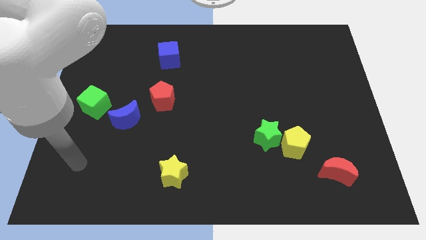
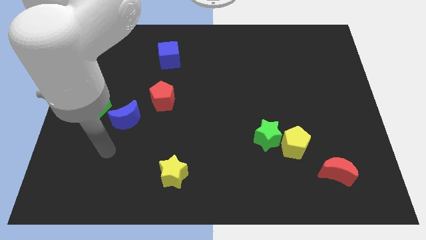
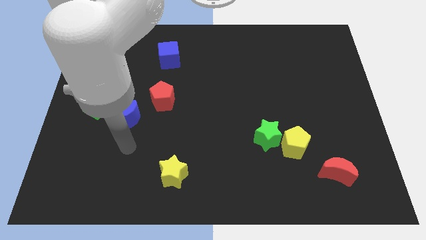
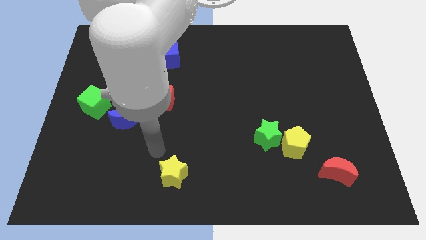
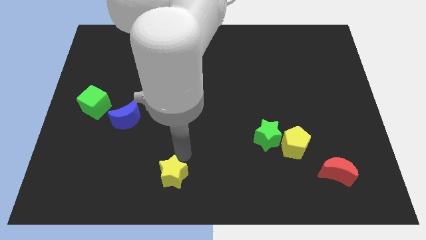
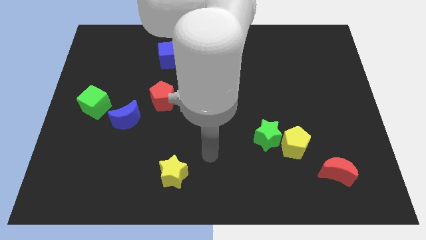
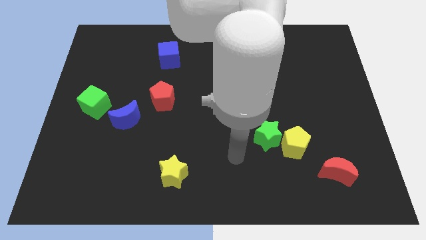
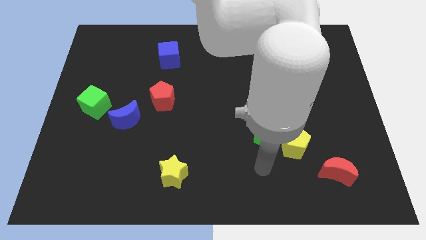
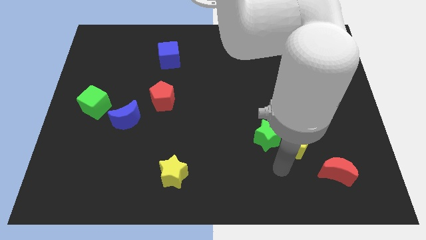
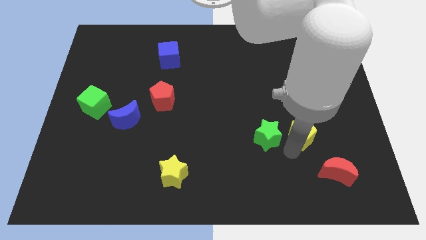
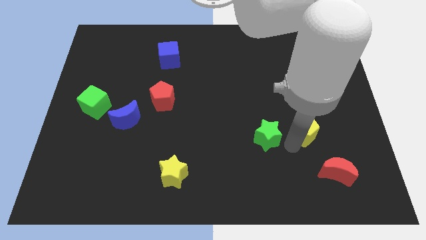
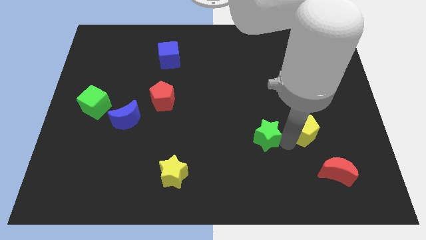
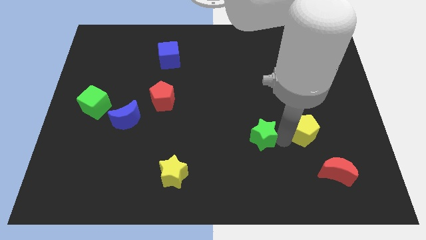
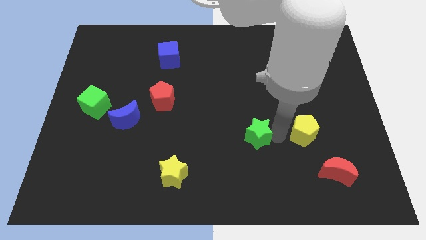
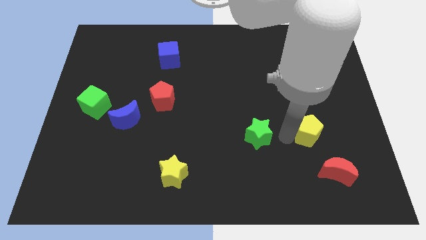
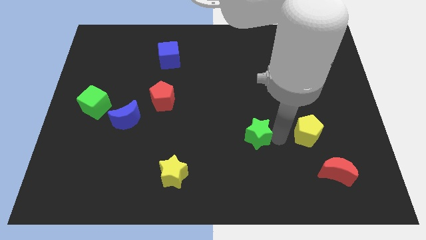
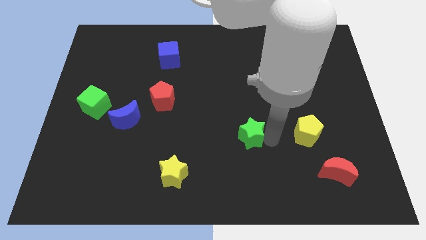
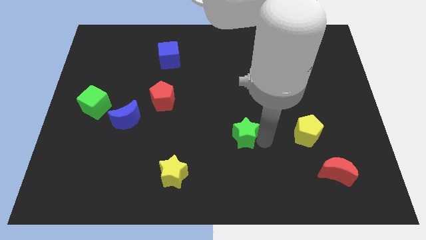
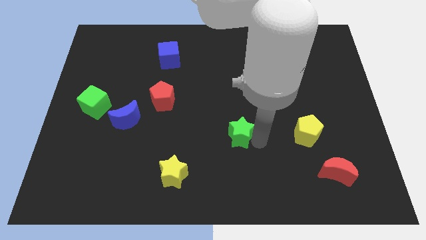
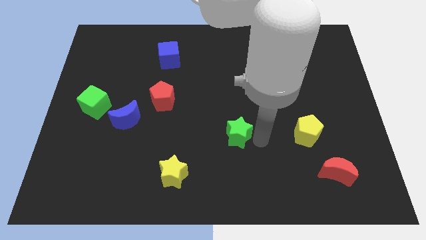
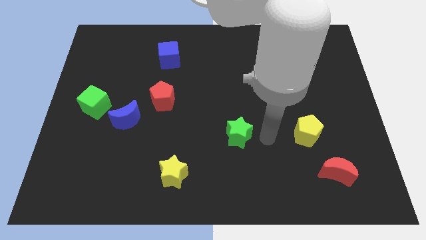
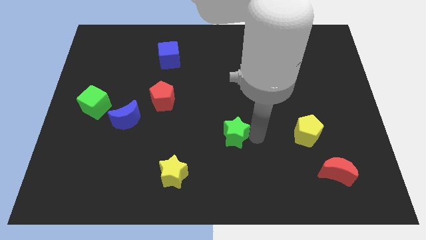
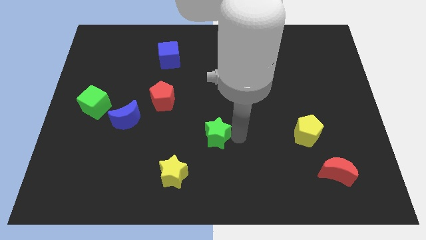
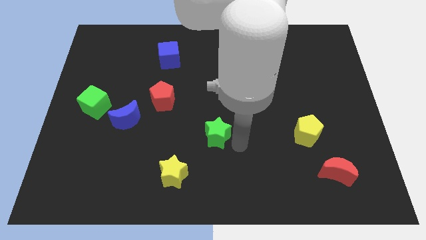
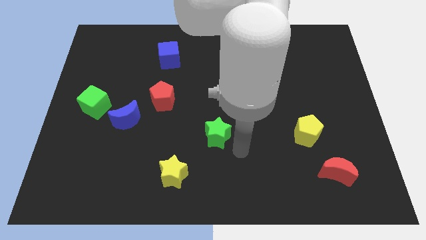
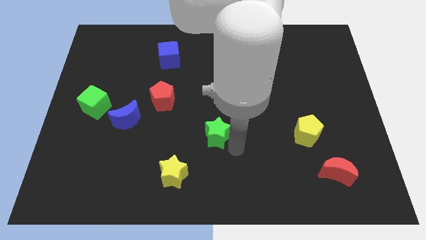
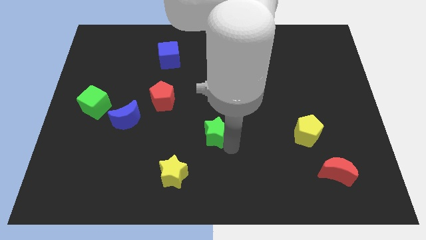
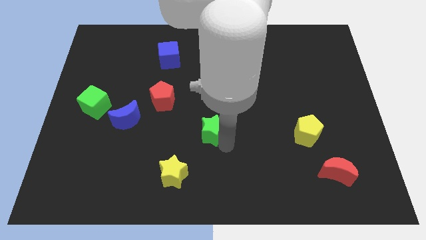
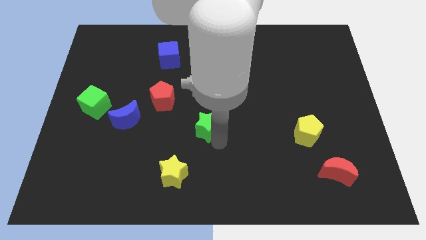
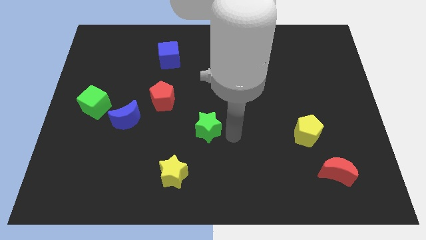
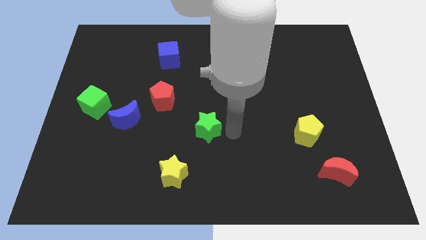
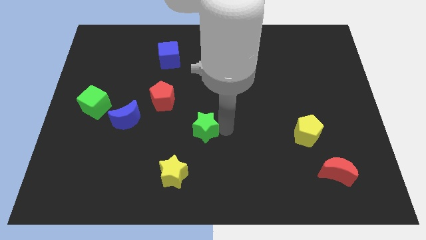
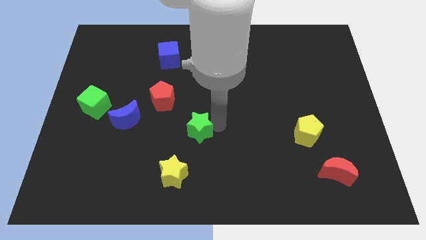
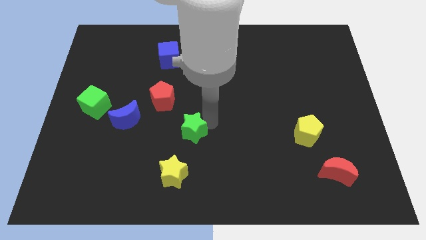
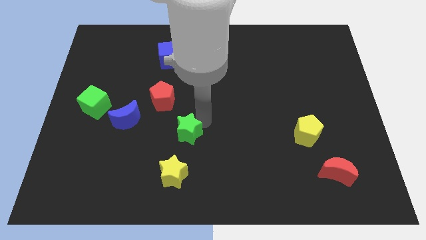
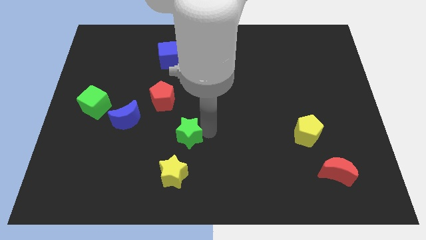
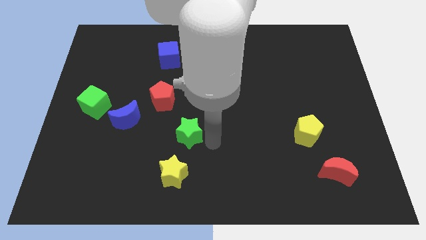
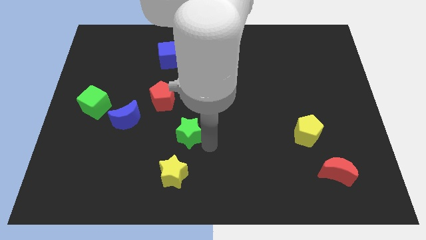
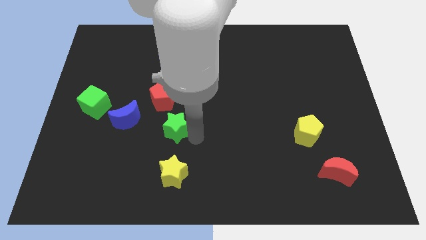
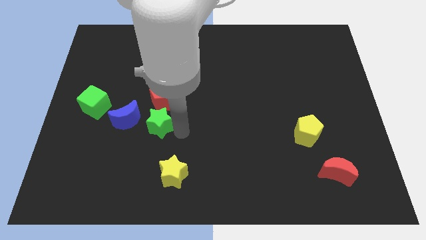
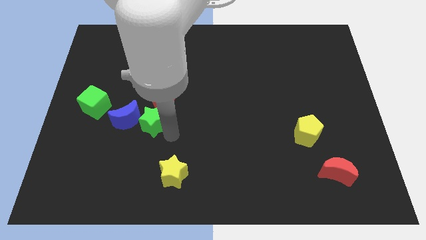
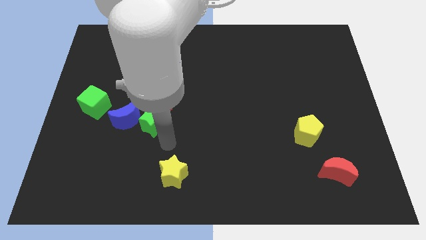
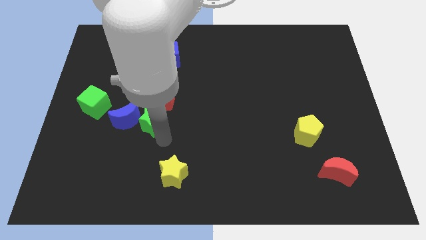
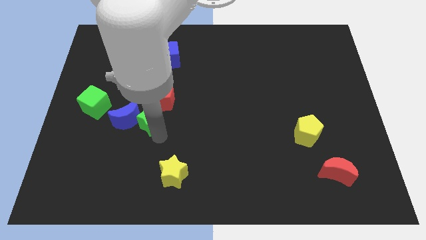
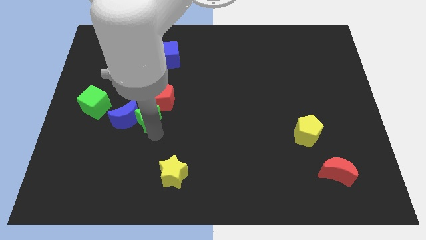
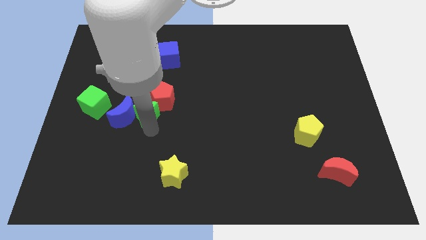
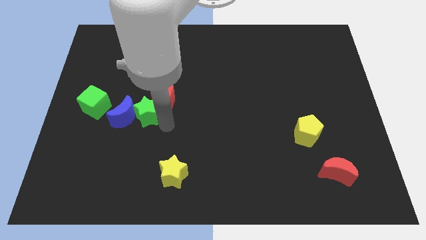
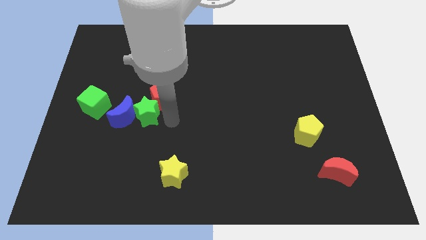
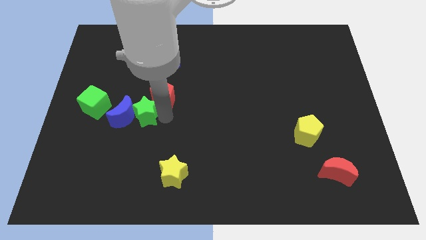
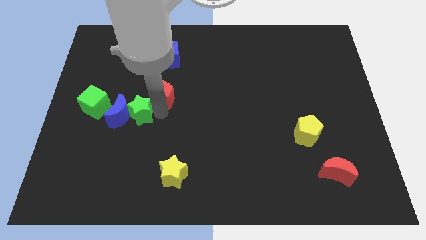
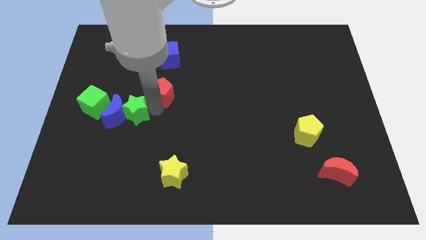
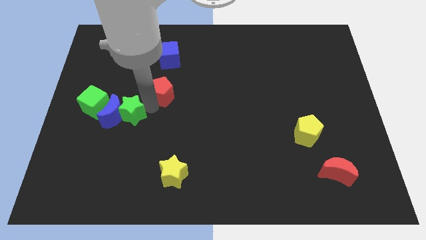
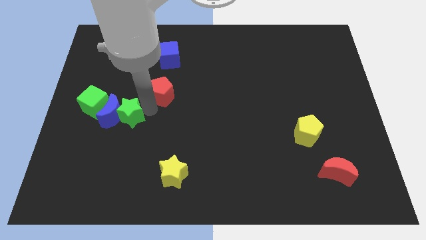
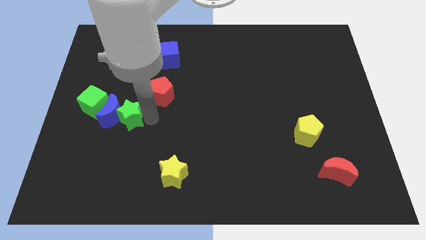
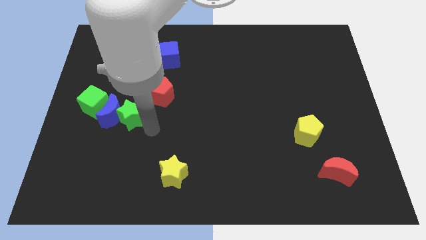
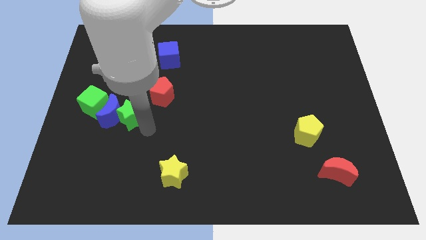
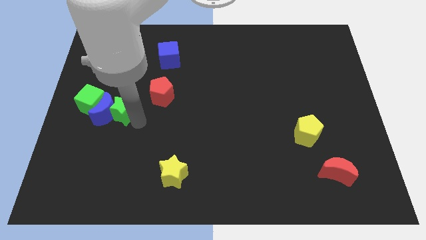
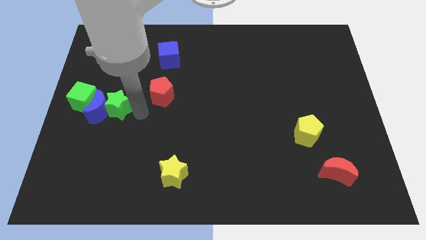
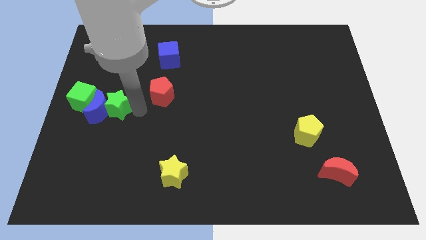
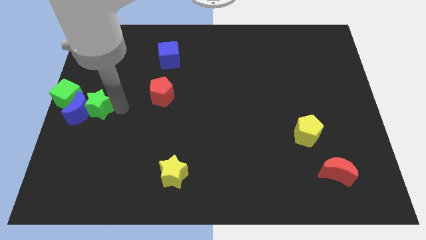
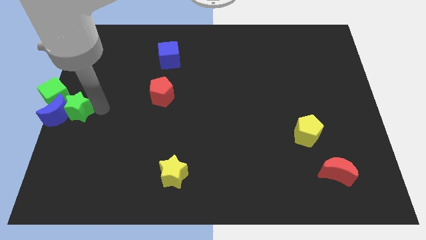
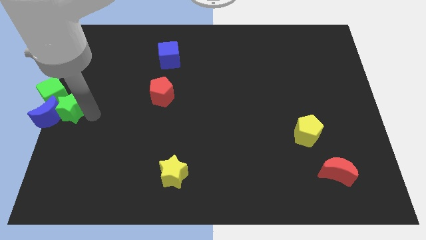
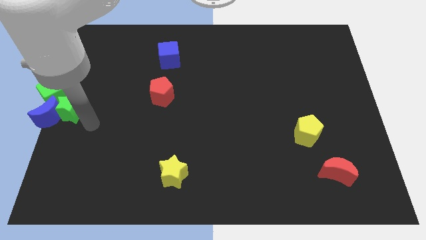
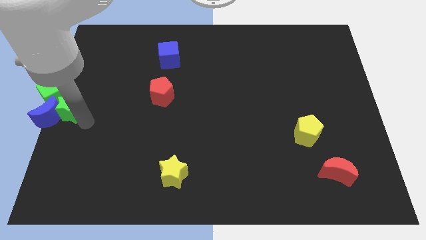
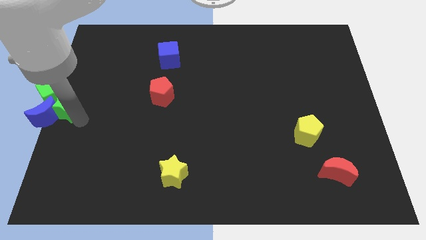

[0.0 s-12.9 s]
push the green star to the green cube

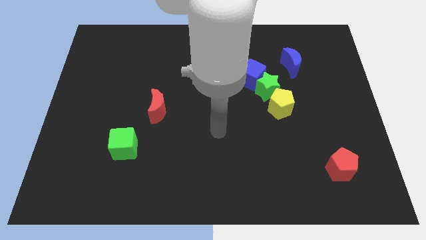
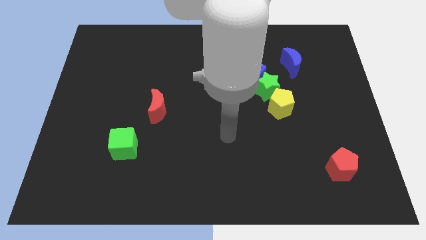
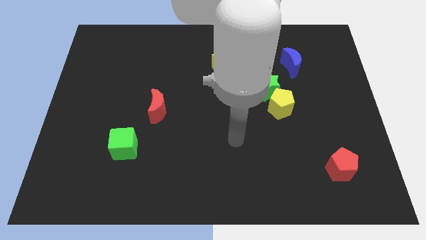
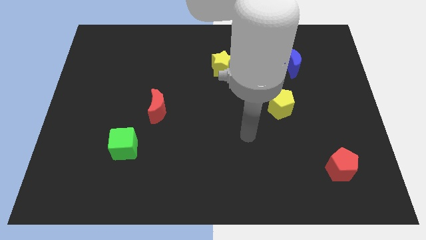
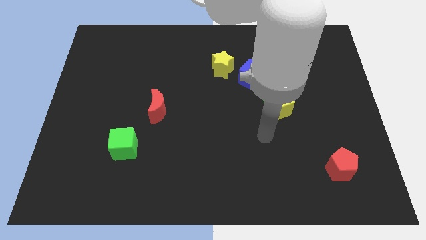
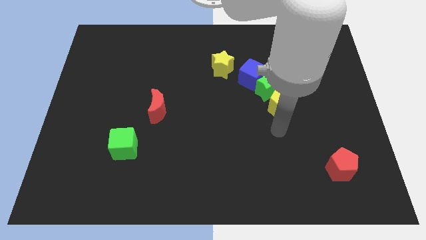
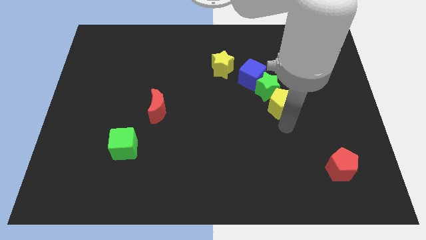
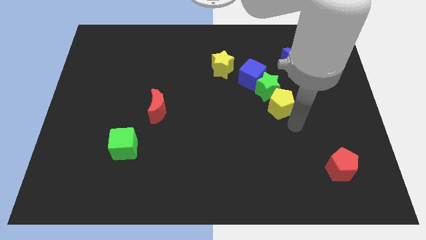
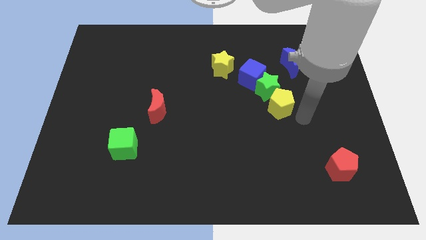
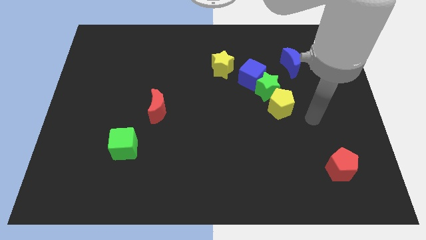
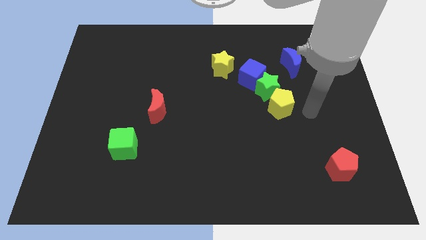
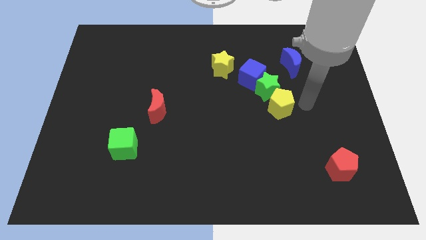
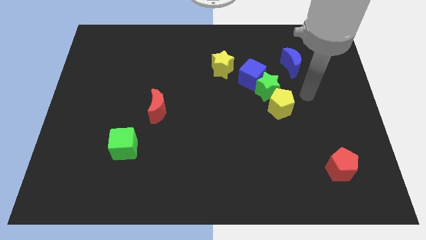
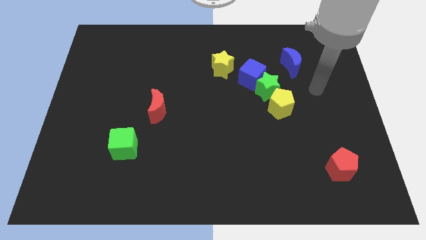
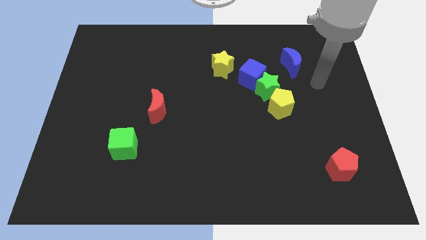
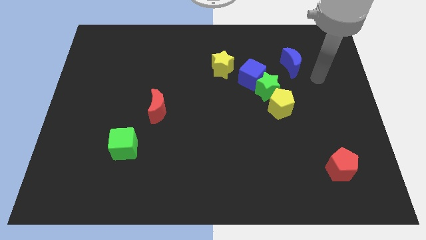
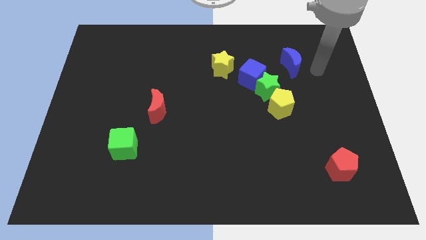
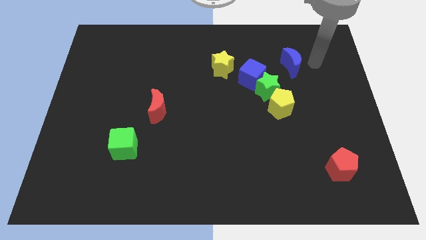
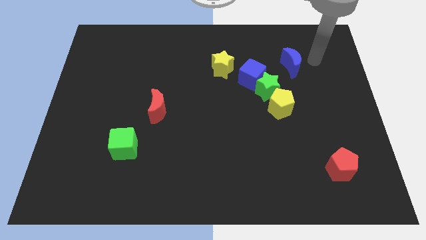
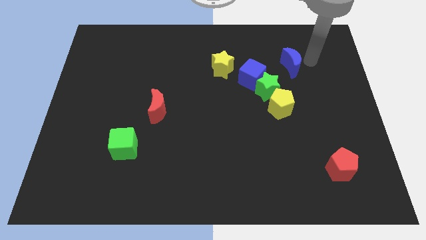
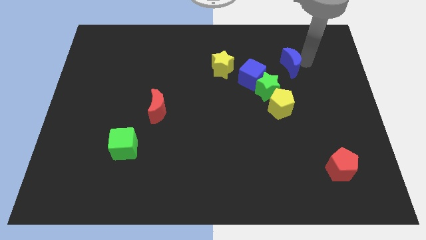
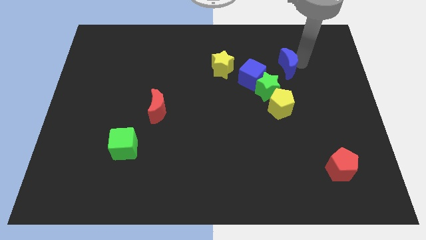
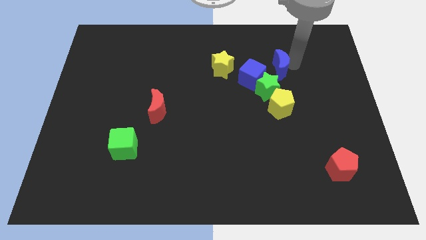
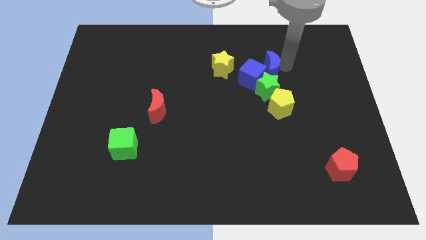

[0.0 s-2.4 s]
move the blue moon towards the blue cube

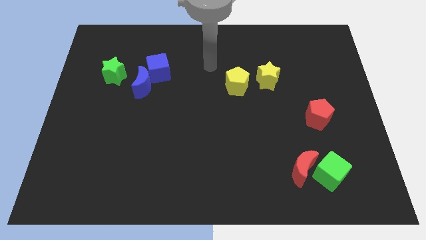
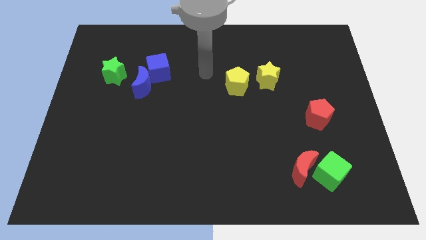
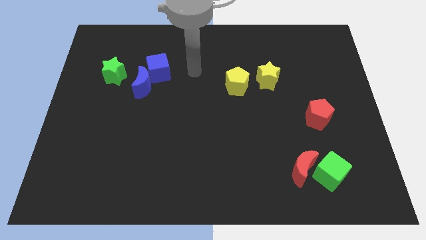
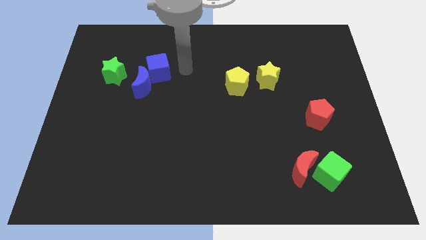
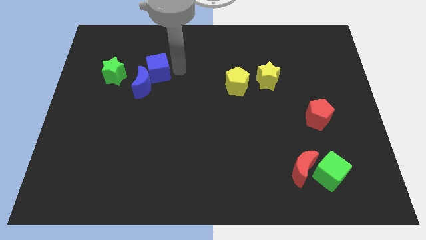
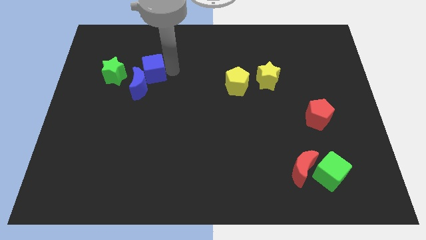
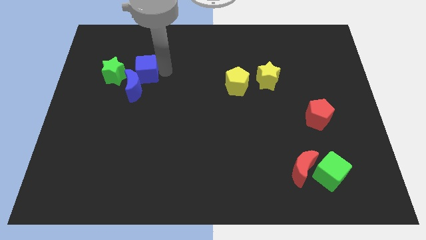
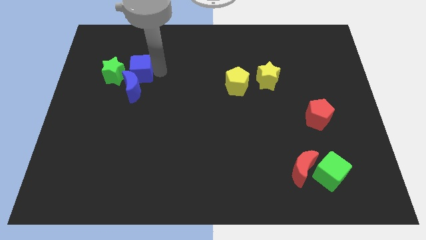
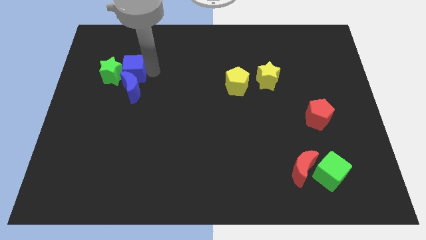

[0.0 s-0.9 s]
put the blue cube close to the green star
